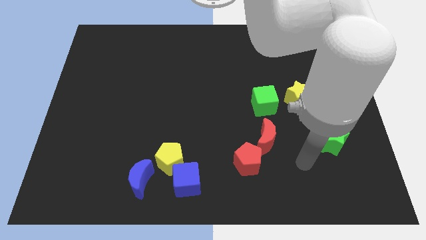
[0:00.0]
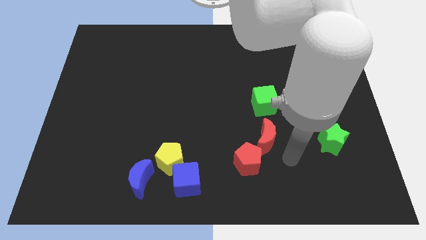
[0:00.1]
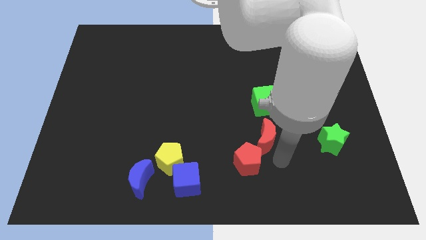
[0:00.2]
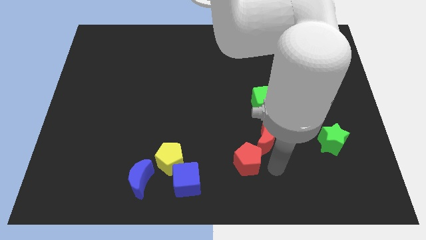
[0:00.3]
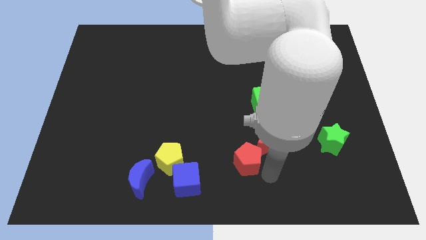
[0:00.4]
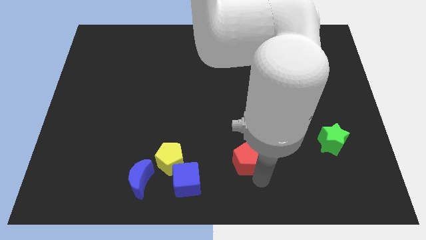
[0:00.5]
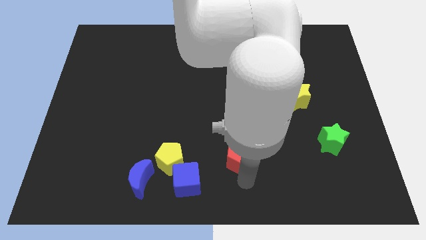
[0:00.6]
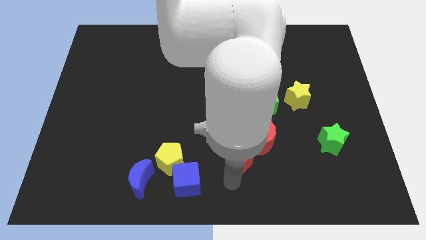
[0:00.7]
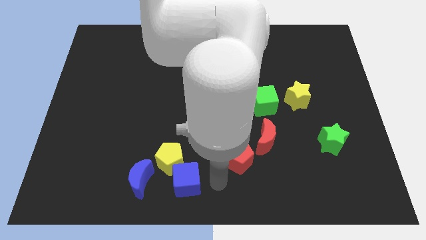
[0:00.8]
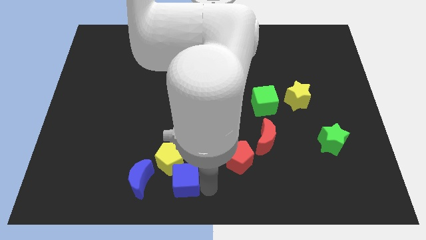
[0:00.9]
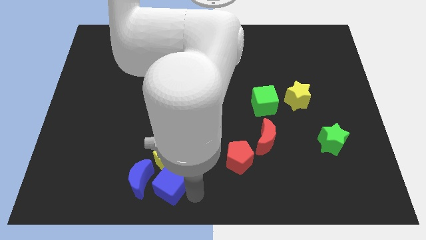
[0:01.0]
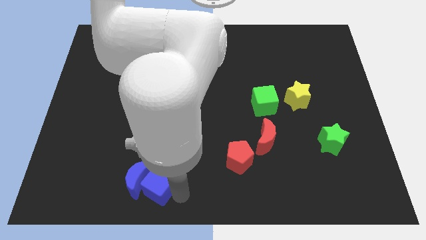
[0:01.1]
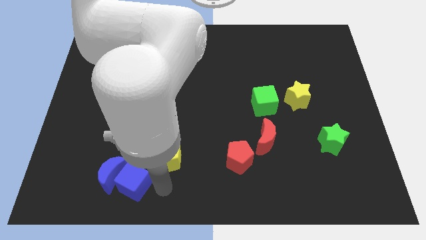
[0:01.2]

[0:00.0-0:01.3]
pull the yellow pentagon apart from the blue cube and blue moon

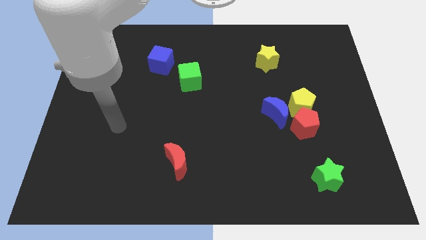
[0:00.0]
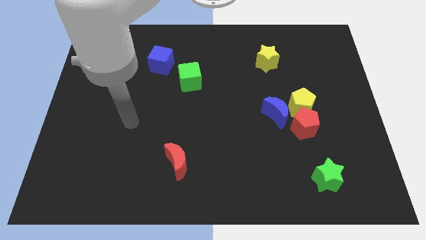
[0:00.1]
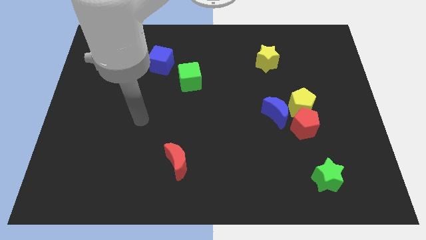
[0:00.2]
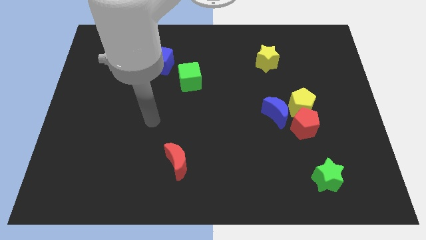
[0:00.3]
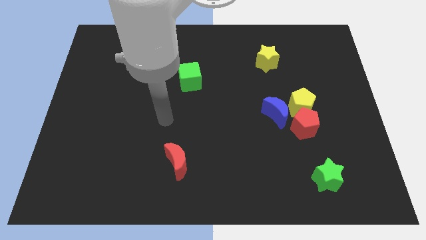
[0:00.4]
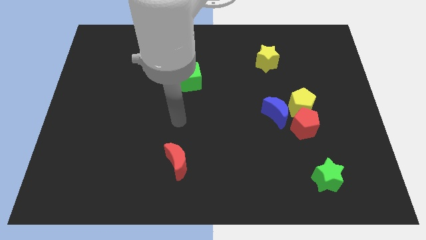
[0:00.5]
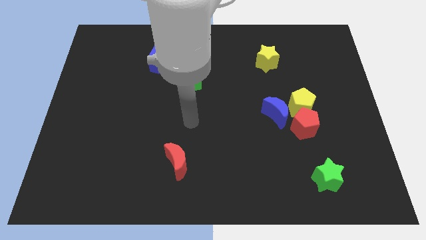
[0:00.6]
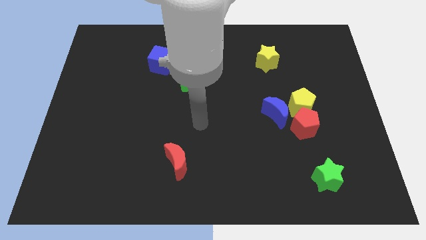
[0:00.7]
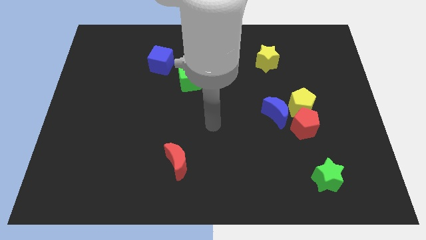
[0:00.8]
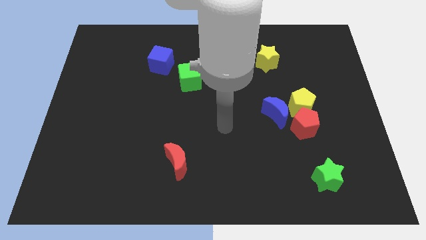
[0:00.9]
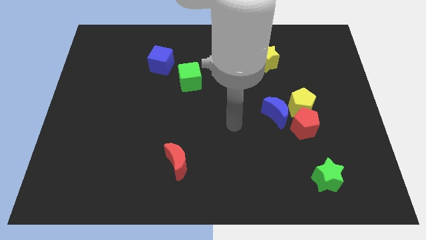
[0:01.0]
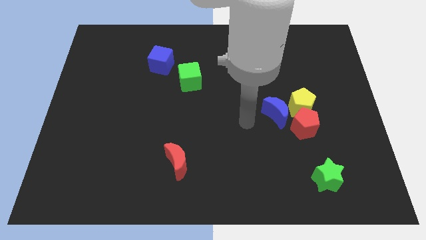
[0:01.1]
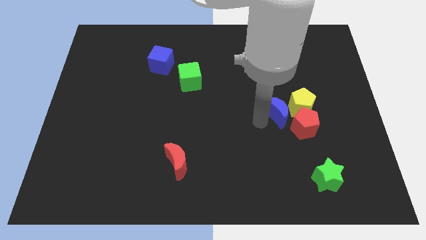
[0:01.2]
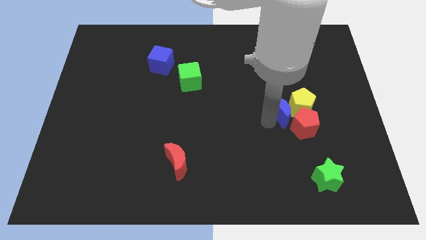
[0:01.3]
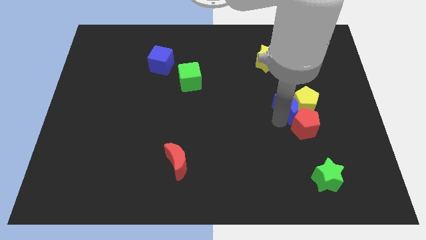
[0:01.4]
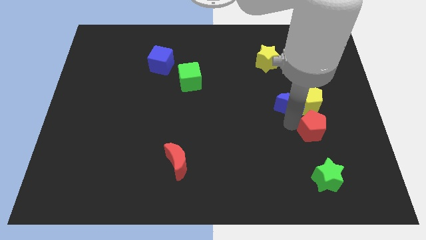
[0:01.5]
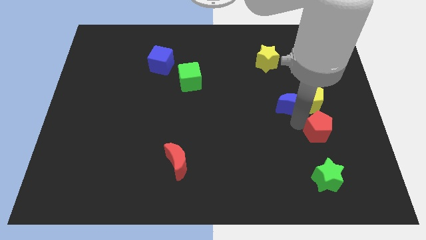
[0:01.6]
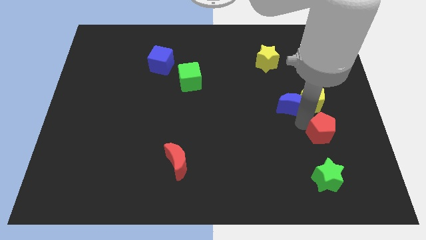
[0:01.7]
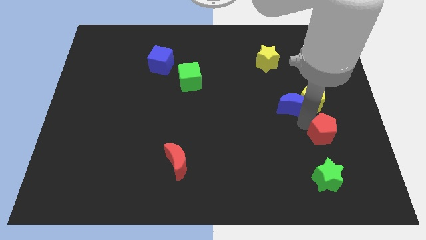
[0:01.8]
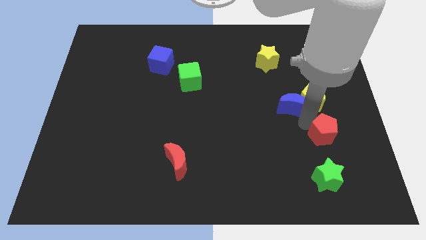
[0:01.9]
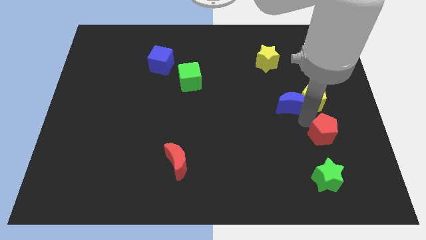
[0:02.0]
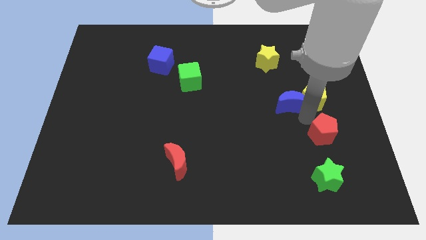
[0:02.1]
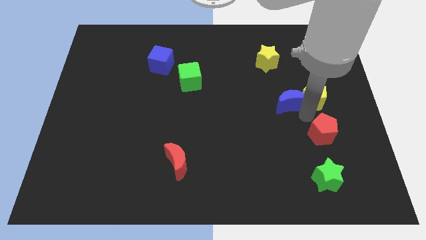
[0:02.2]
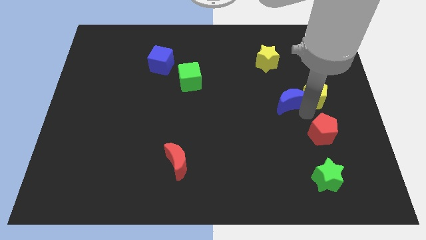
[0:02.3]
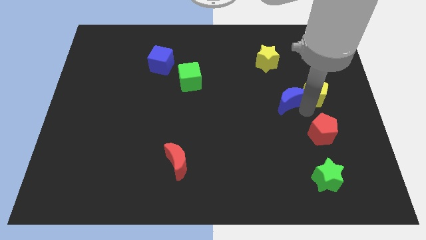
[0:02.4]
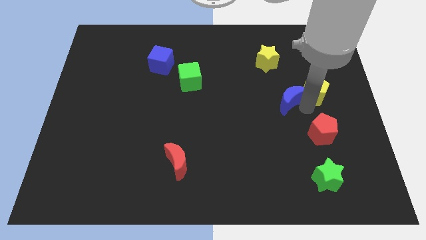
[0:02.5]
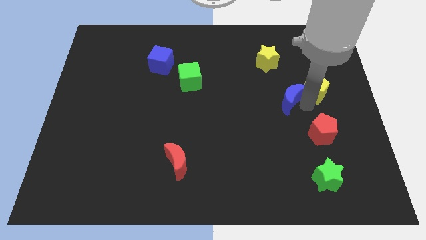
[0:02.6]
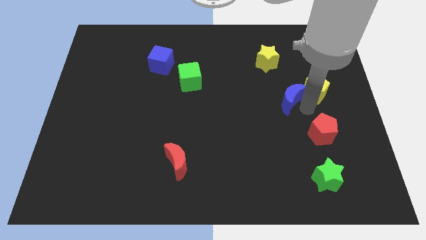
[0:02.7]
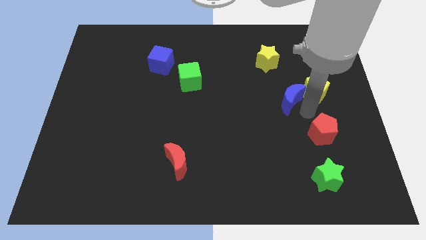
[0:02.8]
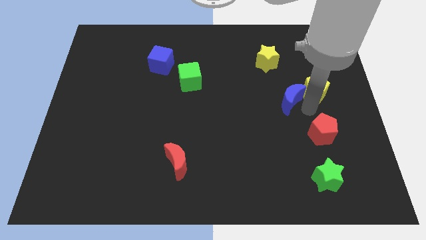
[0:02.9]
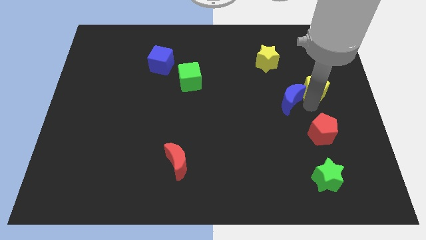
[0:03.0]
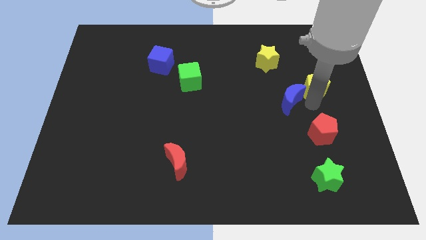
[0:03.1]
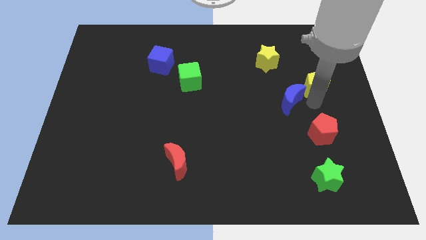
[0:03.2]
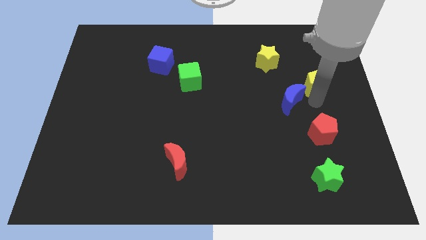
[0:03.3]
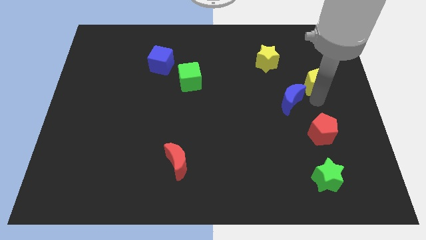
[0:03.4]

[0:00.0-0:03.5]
pull the yellow pentagon apart from the red pentagon and blue moon

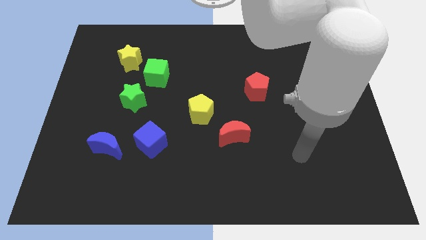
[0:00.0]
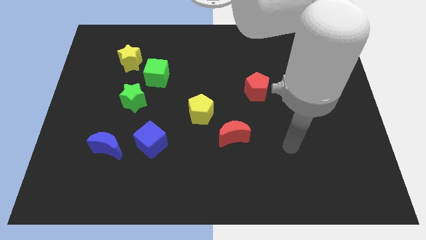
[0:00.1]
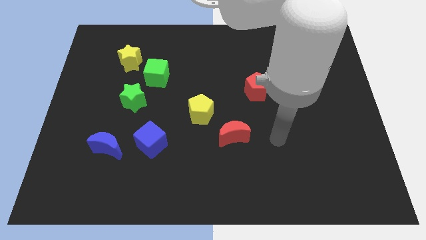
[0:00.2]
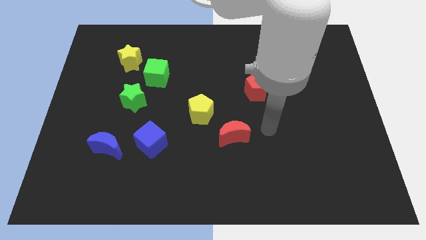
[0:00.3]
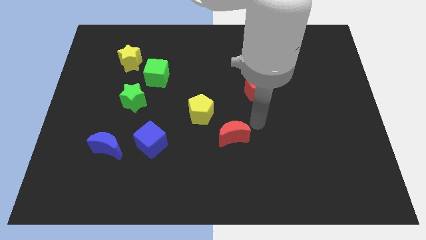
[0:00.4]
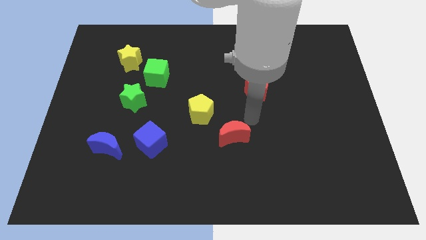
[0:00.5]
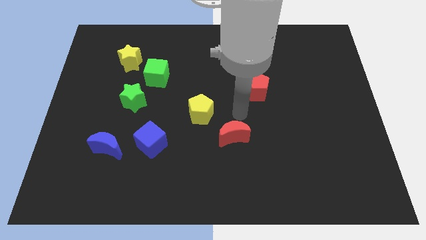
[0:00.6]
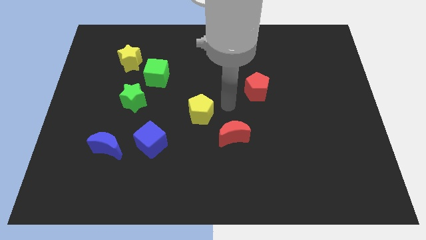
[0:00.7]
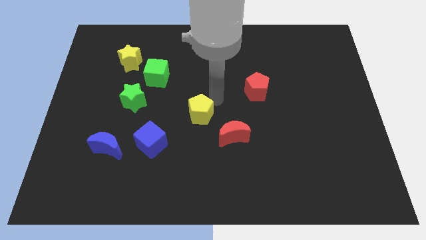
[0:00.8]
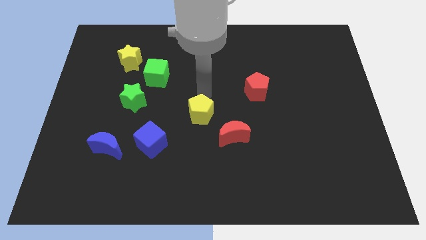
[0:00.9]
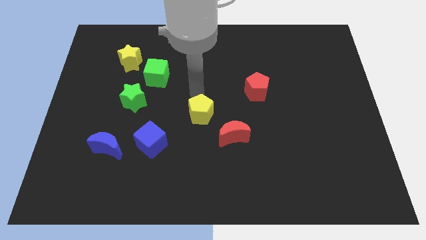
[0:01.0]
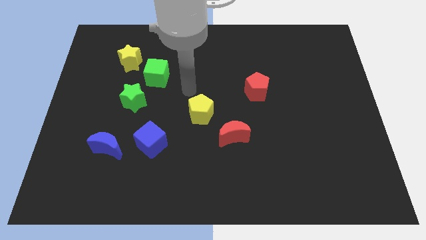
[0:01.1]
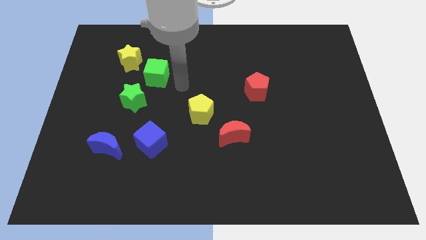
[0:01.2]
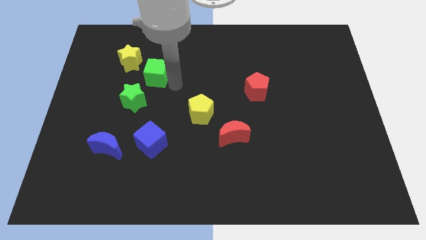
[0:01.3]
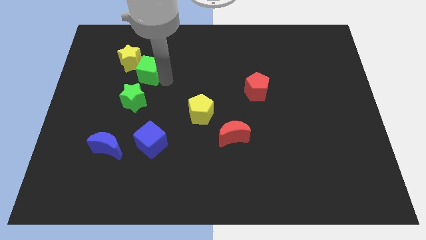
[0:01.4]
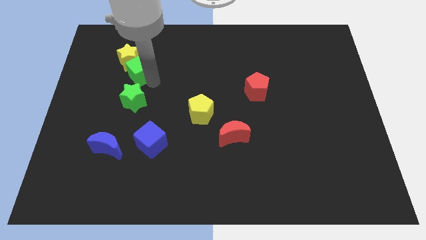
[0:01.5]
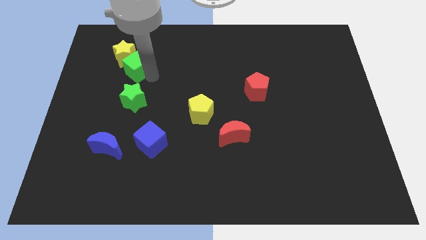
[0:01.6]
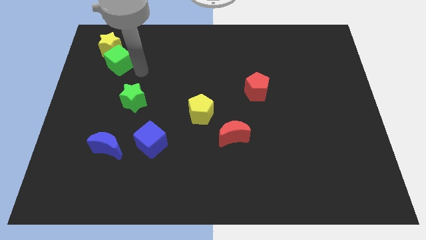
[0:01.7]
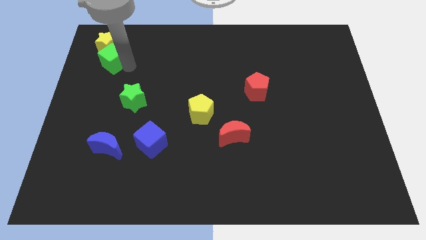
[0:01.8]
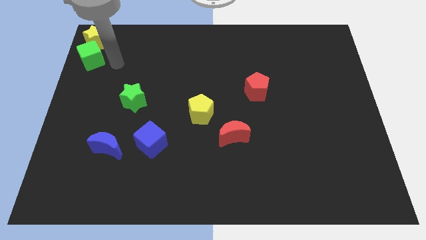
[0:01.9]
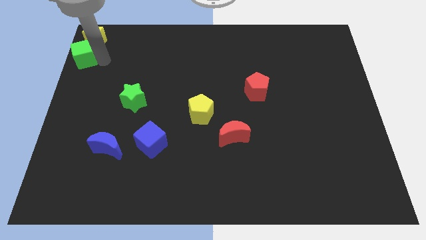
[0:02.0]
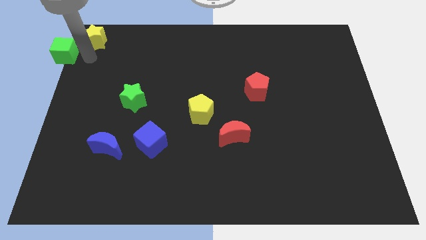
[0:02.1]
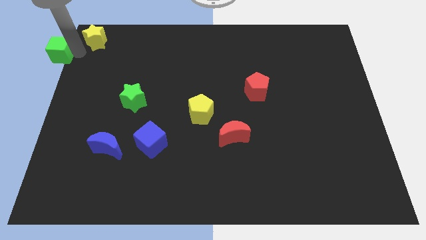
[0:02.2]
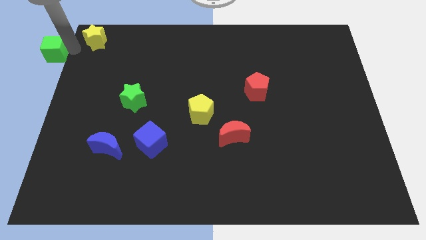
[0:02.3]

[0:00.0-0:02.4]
separate the yellow star from the green cube

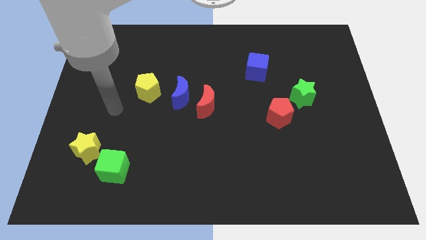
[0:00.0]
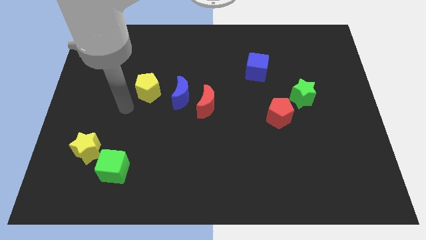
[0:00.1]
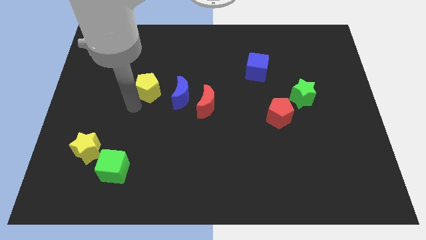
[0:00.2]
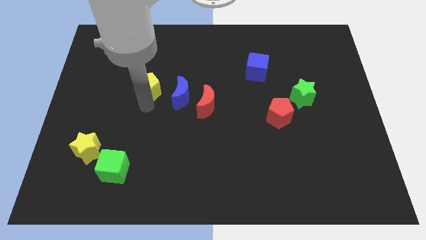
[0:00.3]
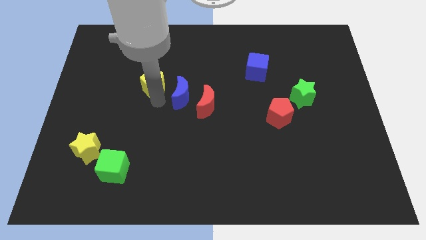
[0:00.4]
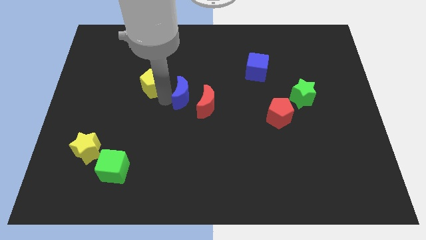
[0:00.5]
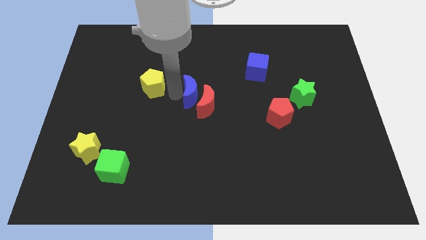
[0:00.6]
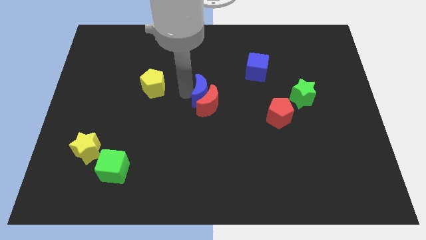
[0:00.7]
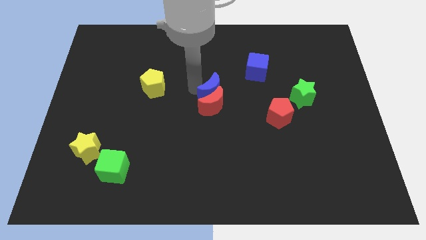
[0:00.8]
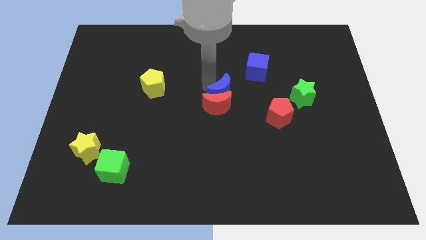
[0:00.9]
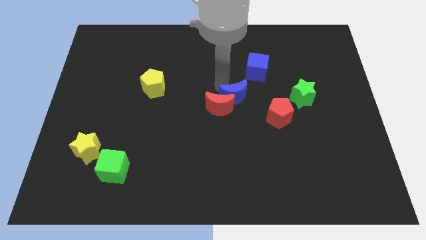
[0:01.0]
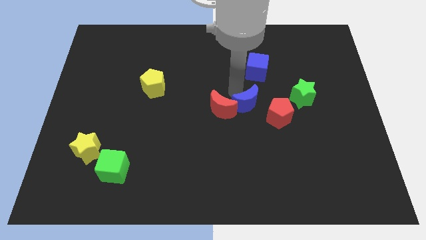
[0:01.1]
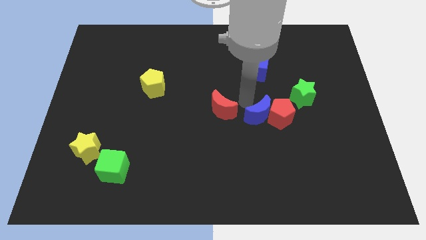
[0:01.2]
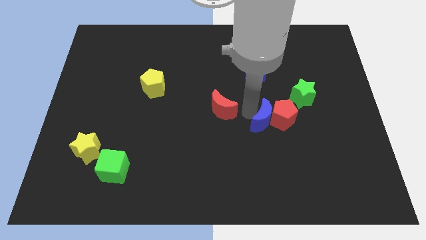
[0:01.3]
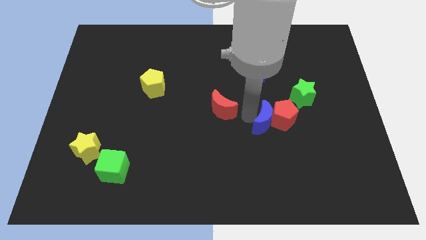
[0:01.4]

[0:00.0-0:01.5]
separate the red moon from the blue moon

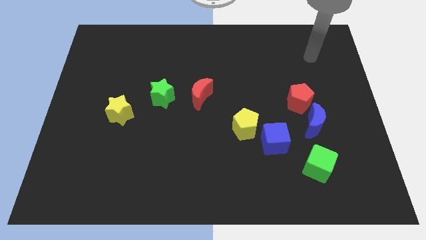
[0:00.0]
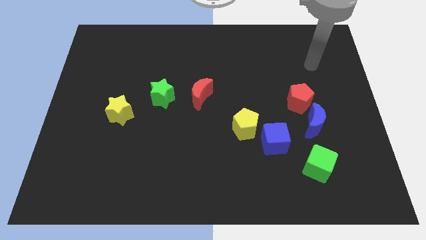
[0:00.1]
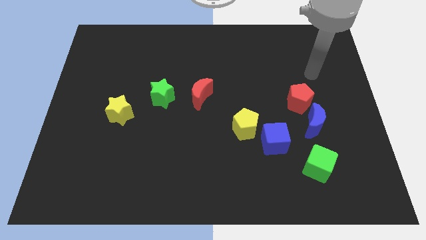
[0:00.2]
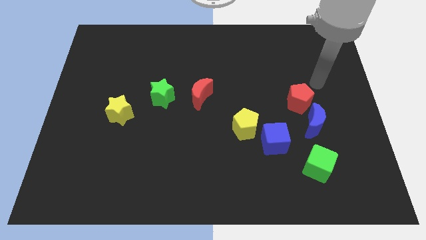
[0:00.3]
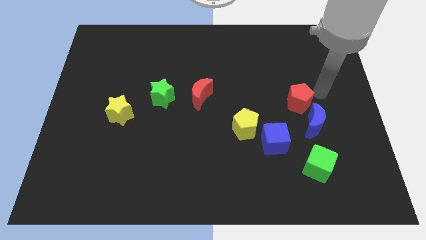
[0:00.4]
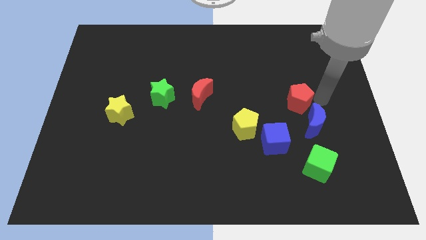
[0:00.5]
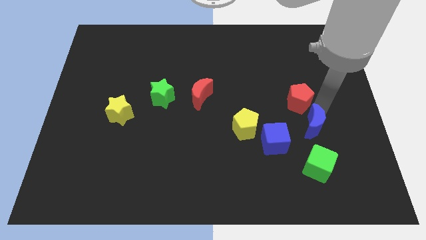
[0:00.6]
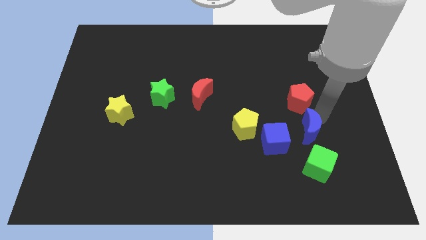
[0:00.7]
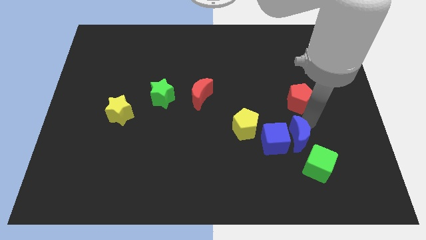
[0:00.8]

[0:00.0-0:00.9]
move the red pentagon away from the blue moon
